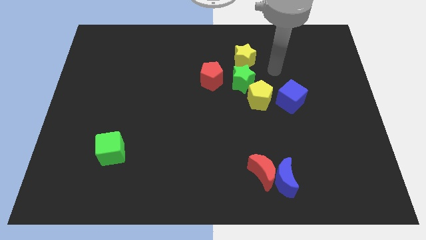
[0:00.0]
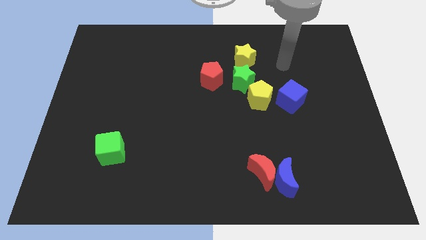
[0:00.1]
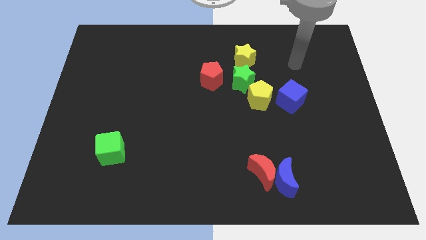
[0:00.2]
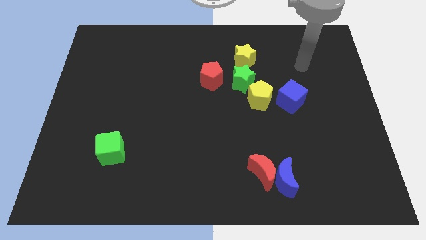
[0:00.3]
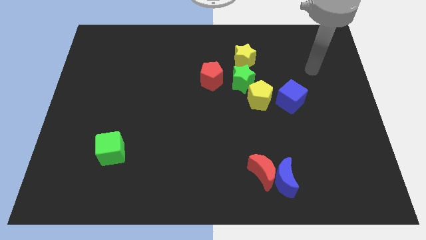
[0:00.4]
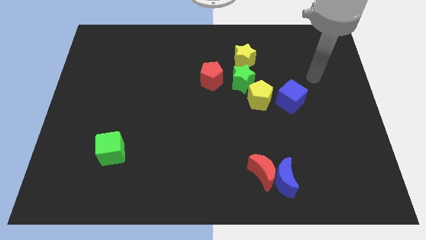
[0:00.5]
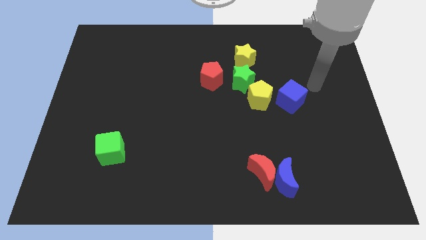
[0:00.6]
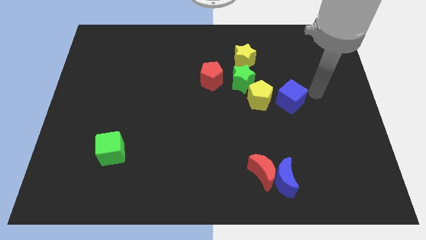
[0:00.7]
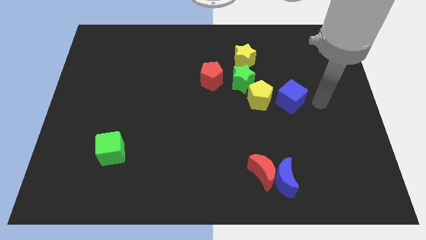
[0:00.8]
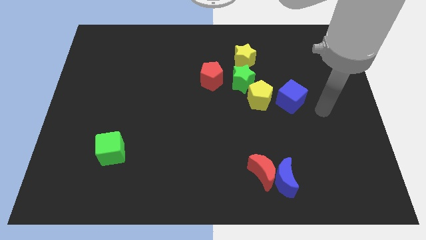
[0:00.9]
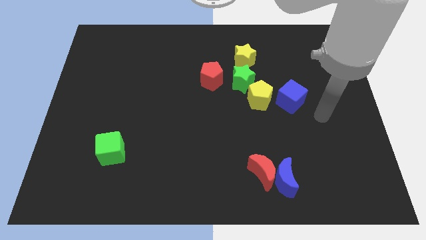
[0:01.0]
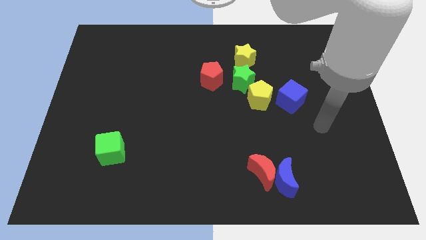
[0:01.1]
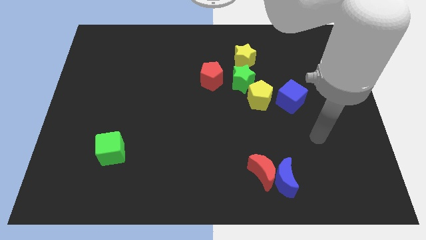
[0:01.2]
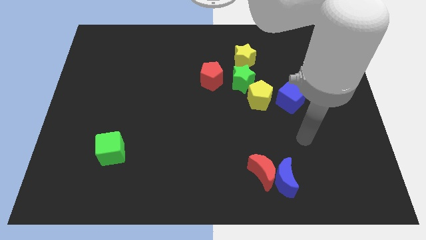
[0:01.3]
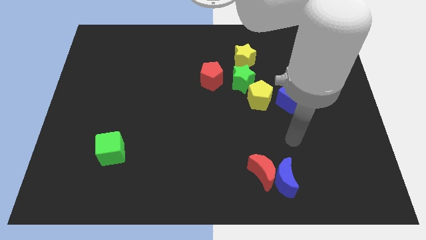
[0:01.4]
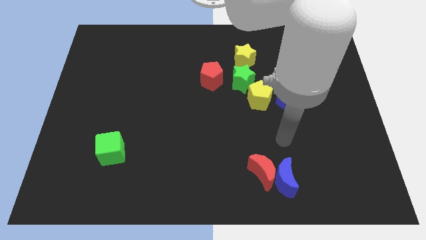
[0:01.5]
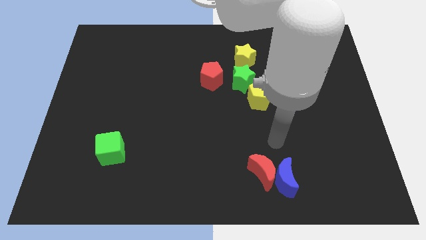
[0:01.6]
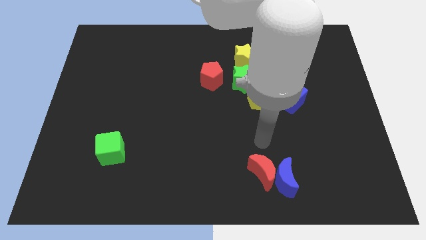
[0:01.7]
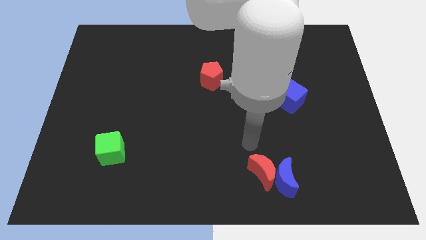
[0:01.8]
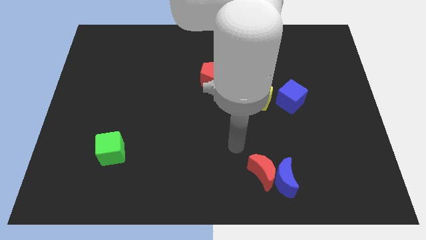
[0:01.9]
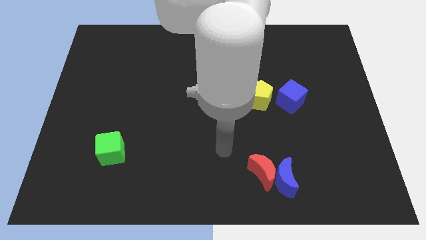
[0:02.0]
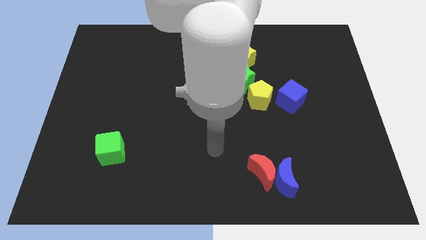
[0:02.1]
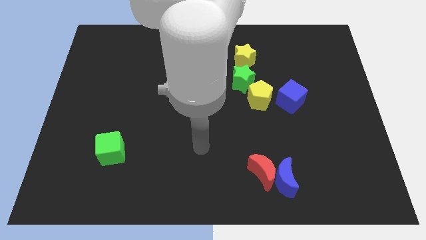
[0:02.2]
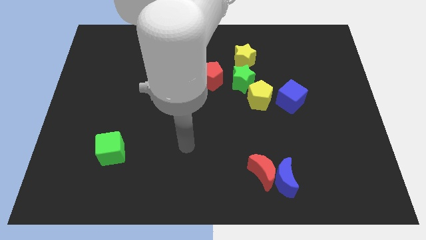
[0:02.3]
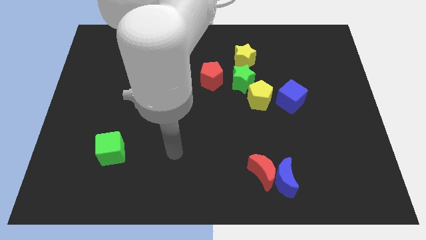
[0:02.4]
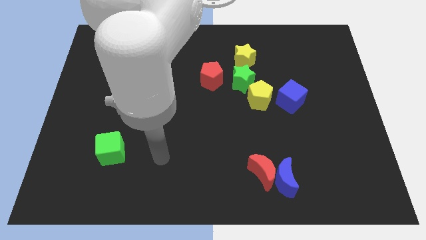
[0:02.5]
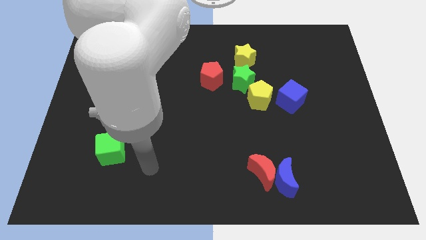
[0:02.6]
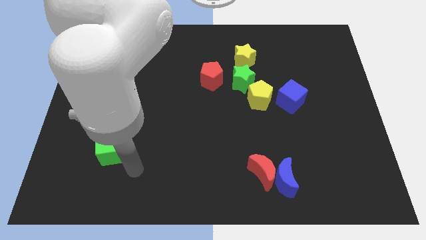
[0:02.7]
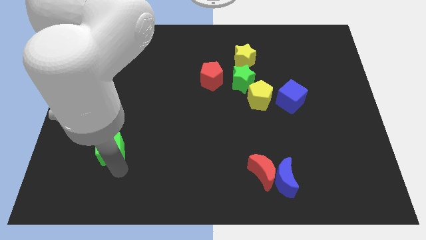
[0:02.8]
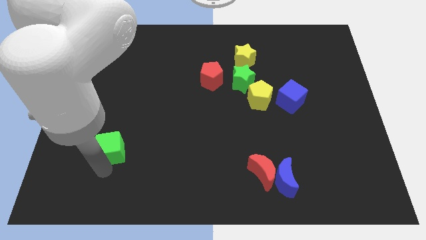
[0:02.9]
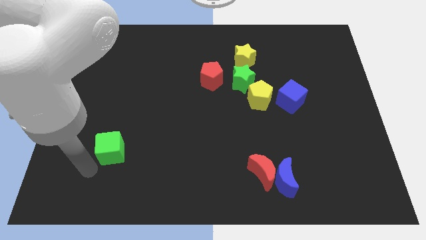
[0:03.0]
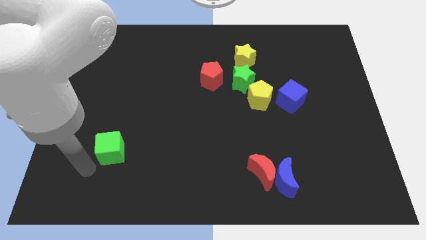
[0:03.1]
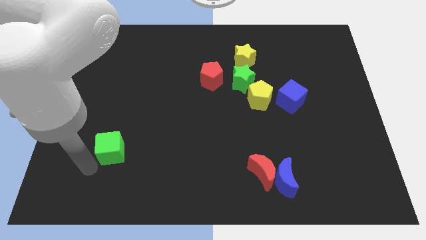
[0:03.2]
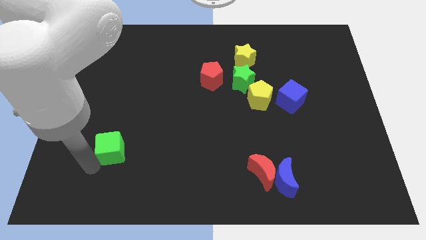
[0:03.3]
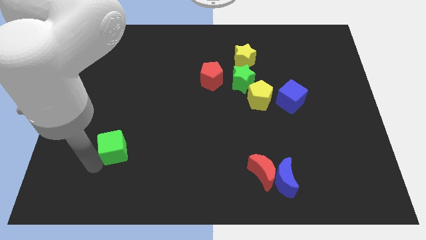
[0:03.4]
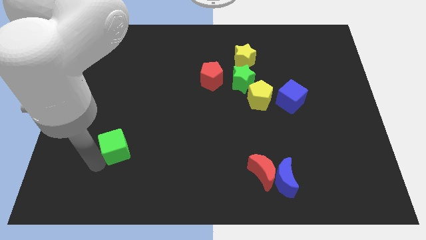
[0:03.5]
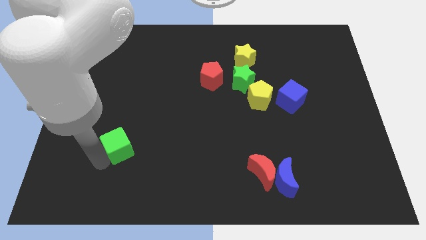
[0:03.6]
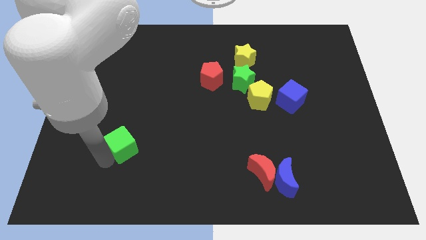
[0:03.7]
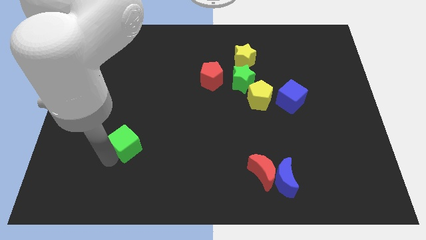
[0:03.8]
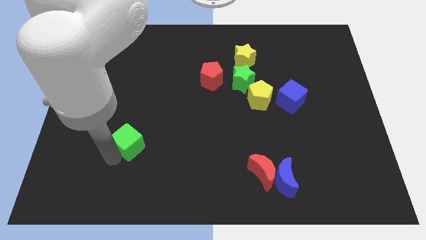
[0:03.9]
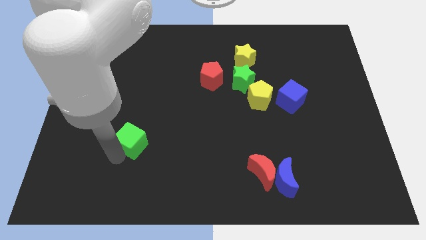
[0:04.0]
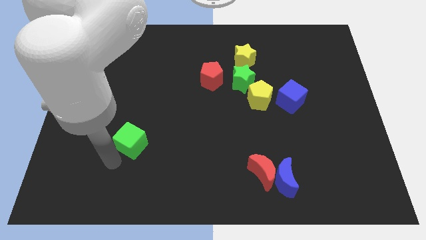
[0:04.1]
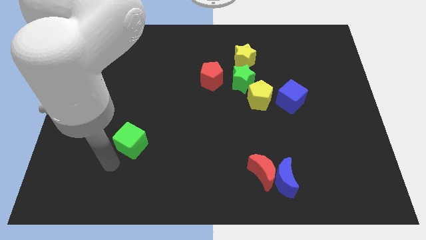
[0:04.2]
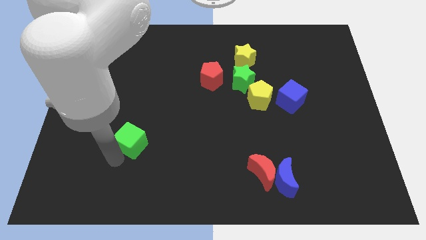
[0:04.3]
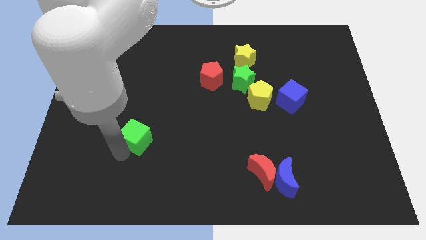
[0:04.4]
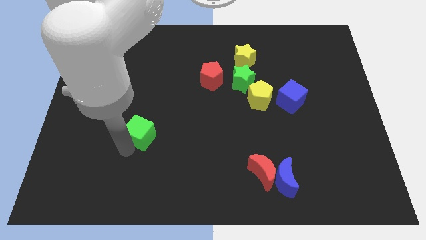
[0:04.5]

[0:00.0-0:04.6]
move the green cube somewhat up and to the right

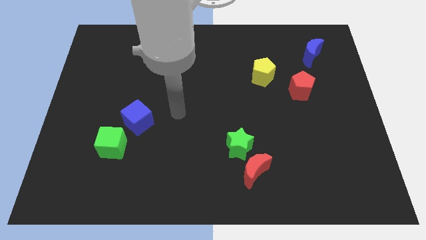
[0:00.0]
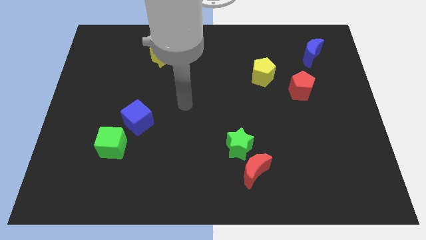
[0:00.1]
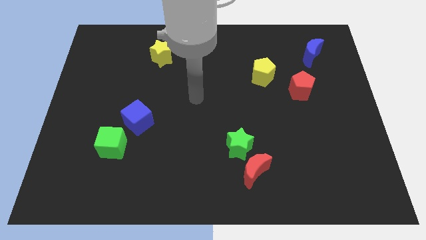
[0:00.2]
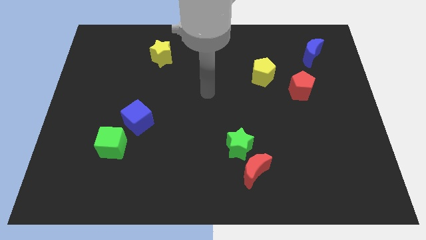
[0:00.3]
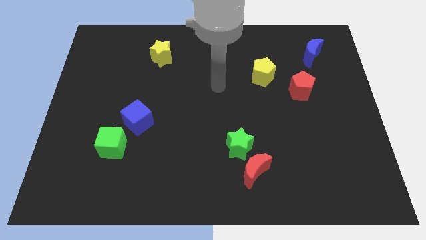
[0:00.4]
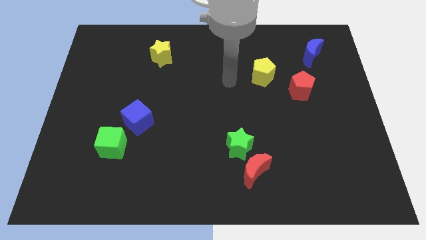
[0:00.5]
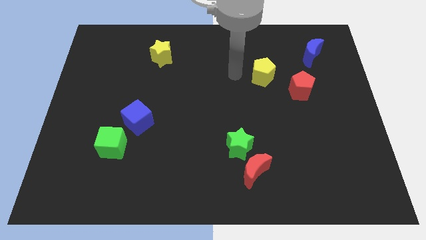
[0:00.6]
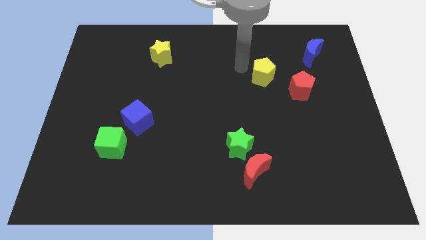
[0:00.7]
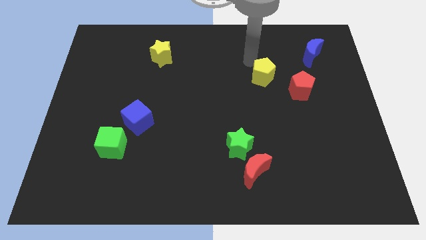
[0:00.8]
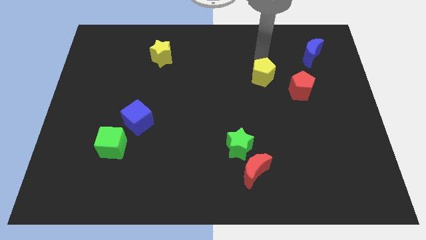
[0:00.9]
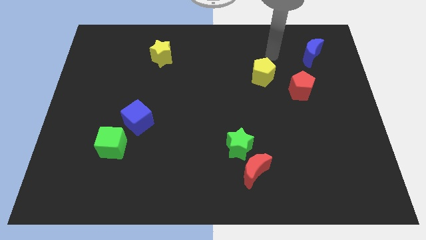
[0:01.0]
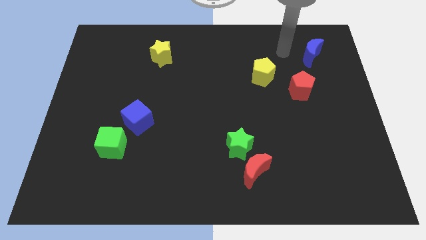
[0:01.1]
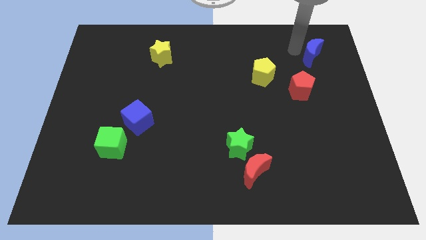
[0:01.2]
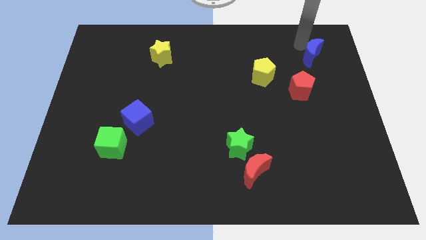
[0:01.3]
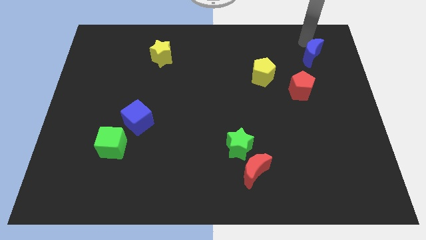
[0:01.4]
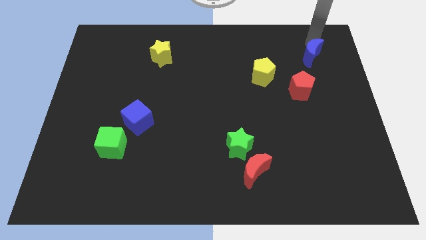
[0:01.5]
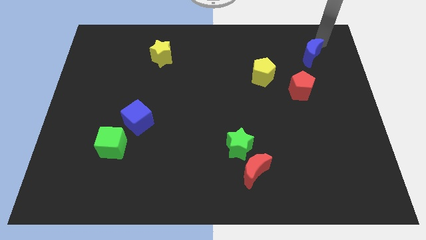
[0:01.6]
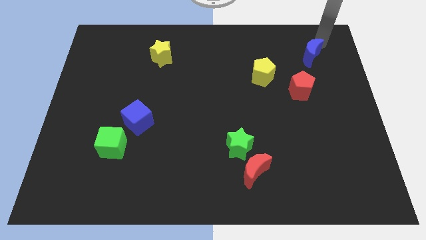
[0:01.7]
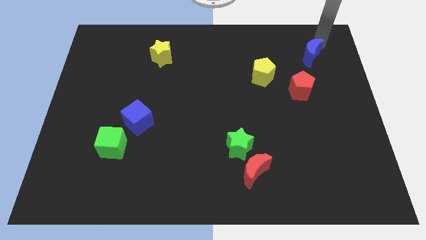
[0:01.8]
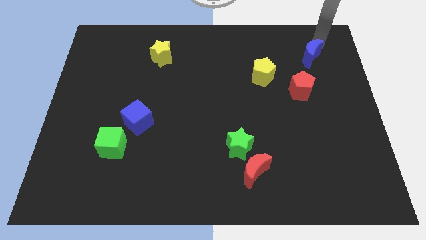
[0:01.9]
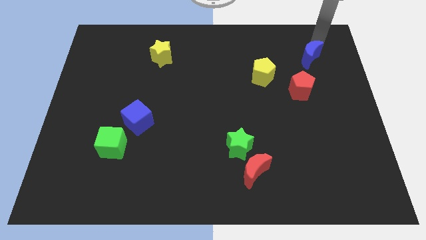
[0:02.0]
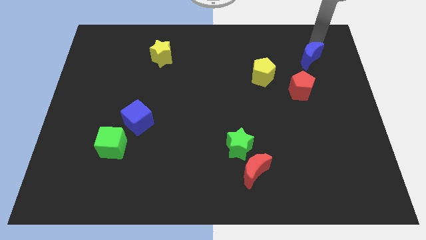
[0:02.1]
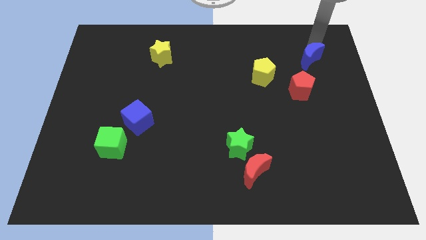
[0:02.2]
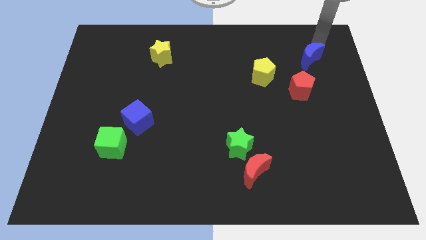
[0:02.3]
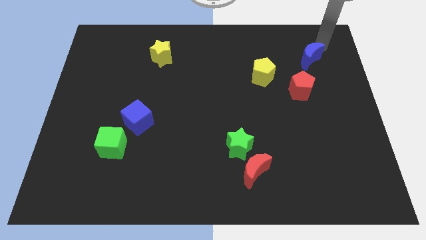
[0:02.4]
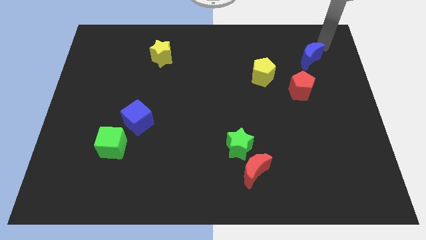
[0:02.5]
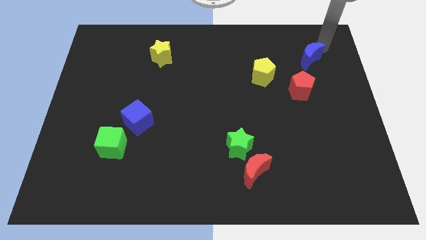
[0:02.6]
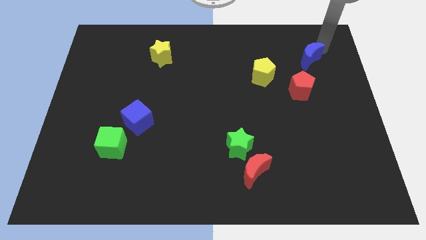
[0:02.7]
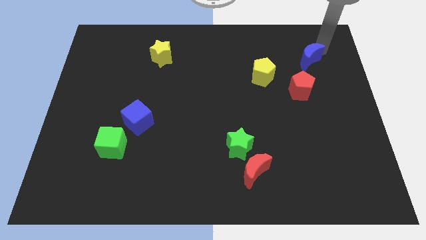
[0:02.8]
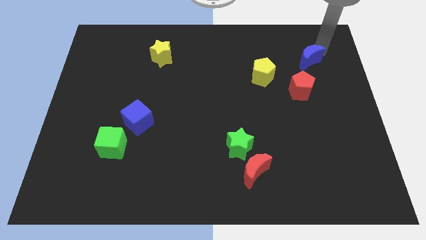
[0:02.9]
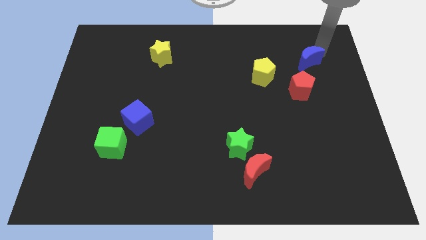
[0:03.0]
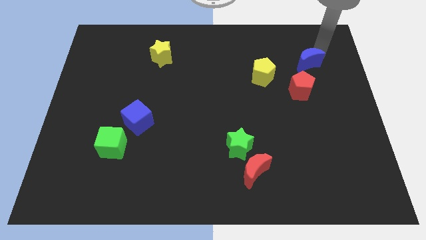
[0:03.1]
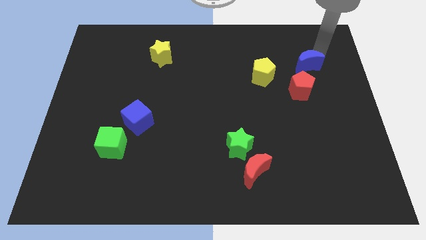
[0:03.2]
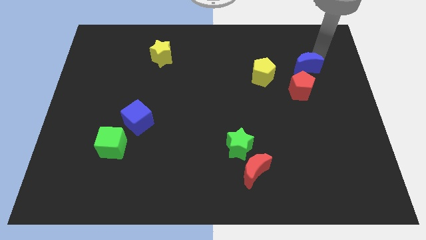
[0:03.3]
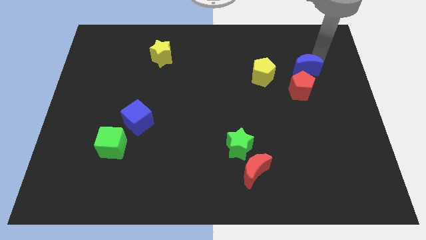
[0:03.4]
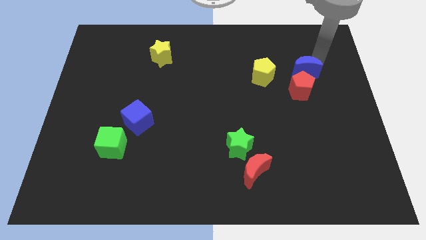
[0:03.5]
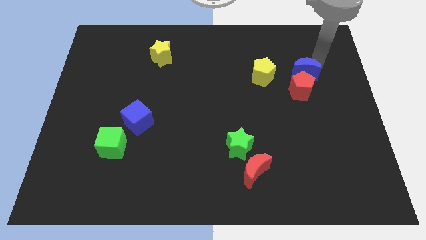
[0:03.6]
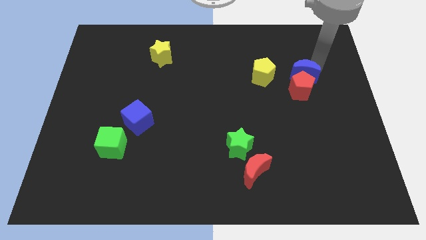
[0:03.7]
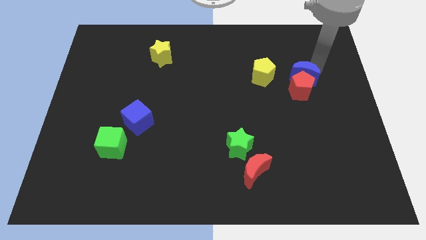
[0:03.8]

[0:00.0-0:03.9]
slide the blue moon down and to the left diagonally a bit
